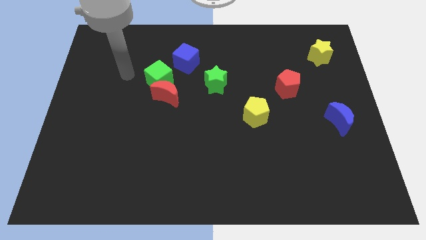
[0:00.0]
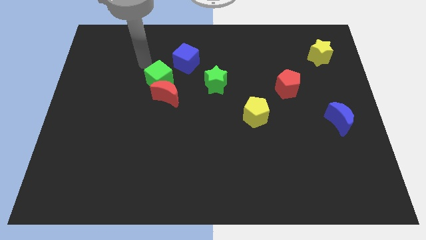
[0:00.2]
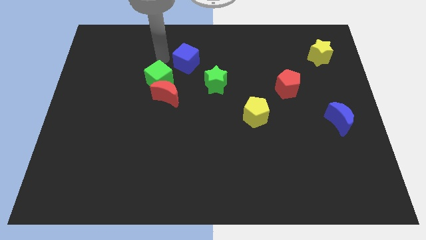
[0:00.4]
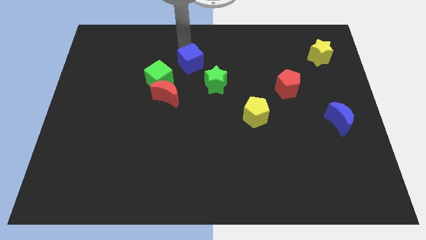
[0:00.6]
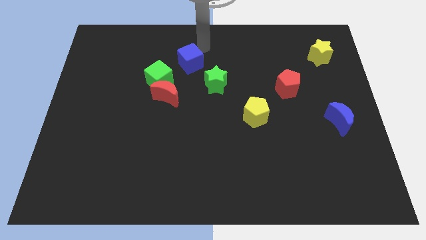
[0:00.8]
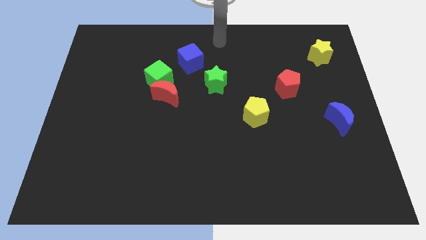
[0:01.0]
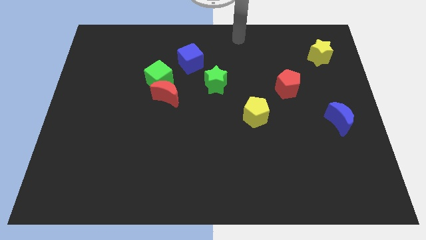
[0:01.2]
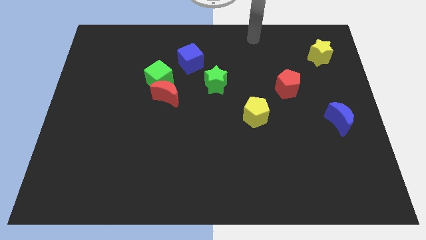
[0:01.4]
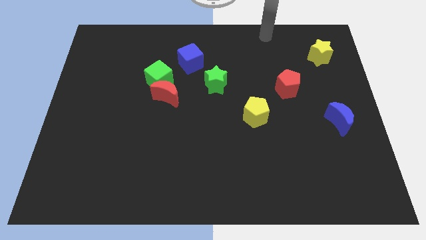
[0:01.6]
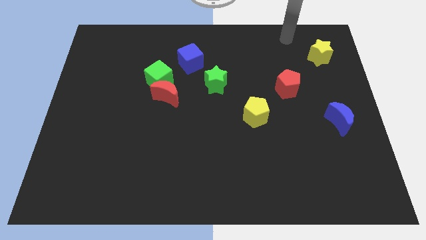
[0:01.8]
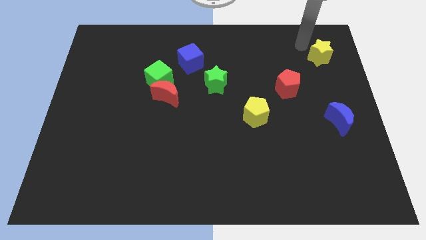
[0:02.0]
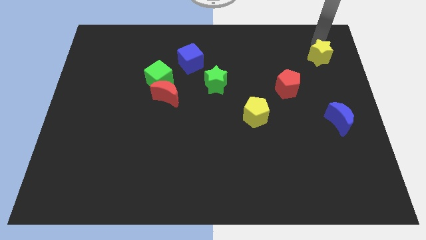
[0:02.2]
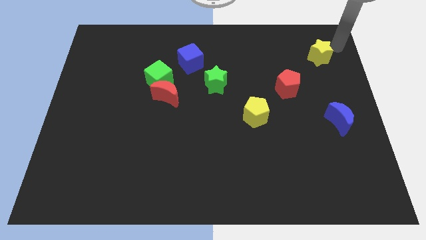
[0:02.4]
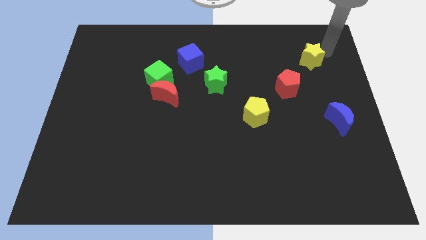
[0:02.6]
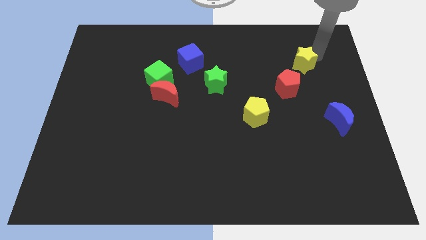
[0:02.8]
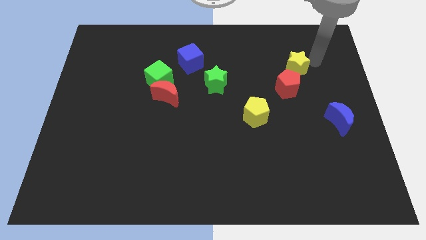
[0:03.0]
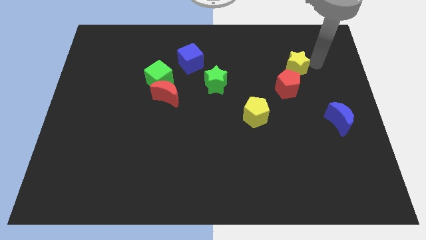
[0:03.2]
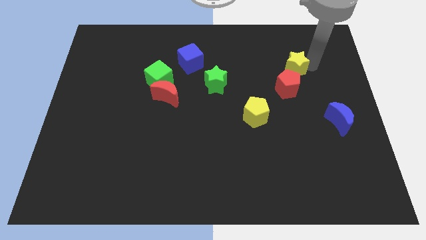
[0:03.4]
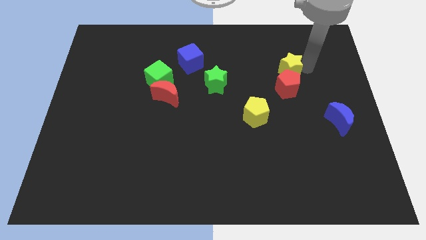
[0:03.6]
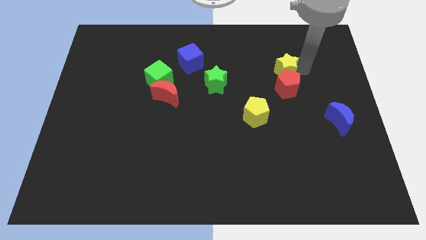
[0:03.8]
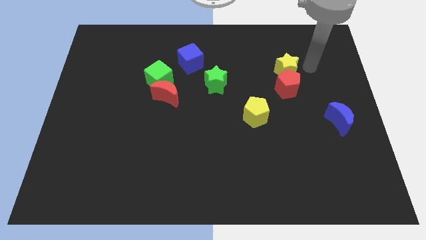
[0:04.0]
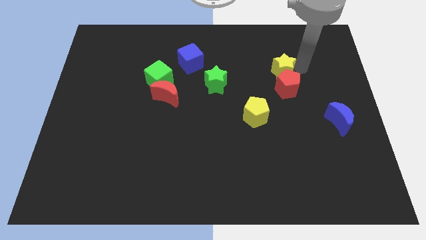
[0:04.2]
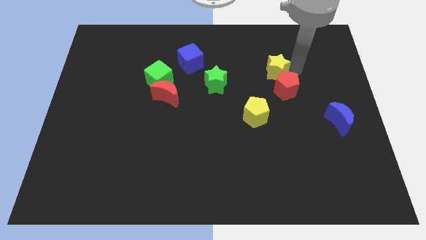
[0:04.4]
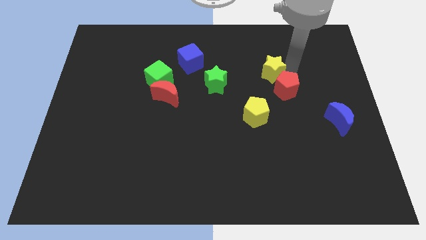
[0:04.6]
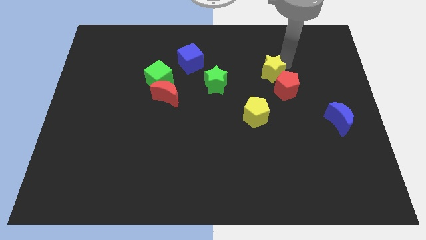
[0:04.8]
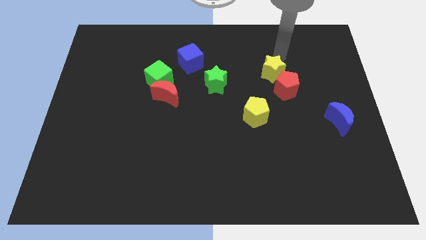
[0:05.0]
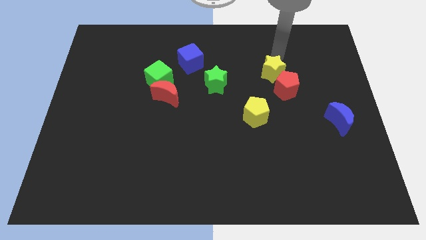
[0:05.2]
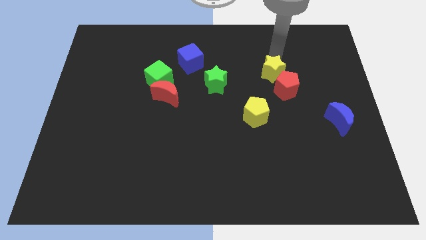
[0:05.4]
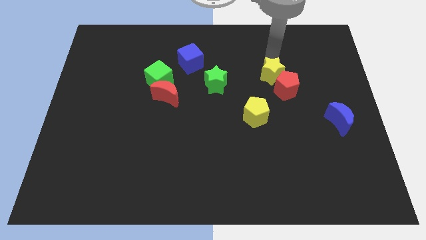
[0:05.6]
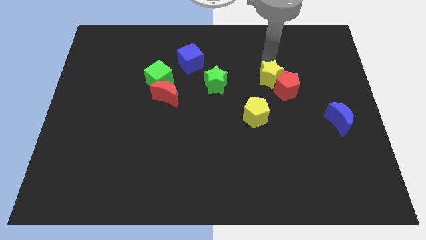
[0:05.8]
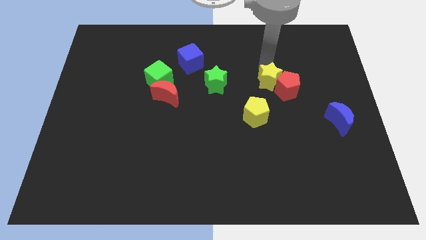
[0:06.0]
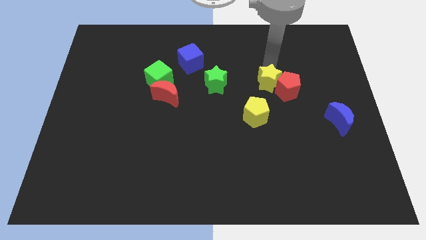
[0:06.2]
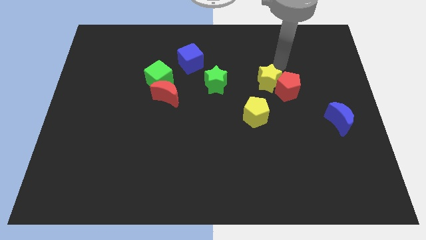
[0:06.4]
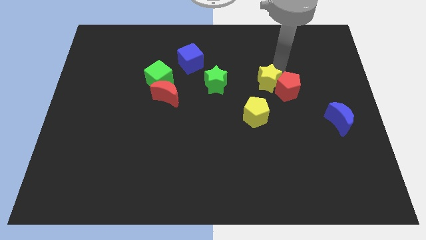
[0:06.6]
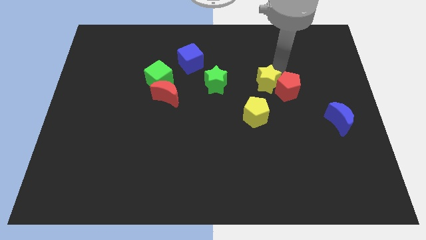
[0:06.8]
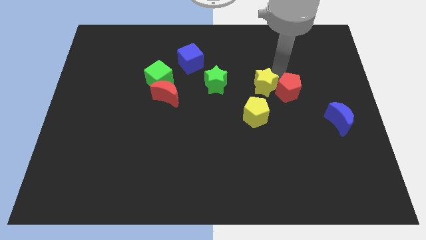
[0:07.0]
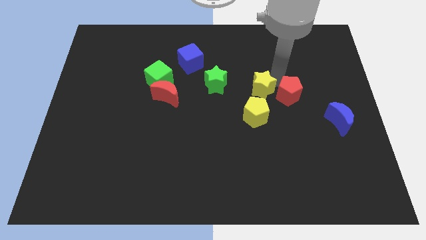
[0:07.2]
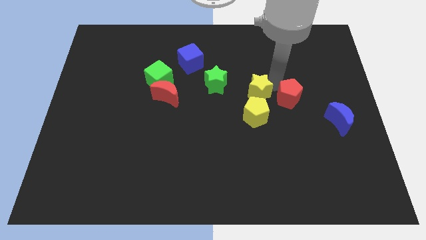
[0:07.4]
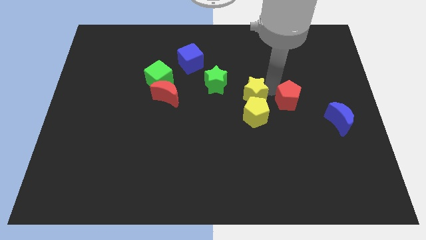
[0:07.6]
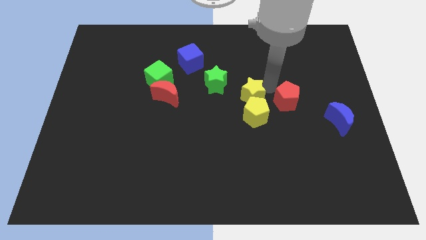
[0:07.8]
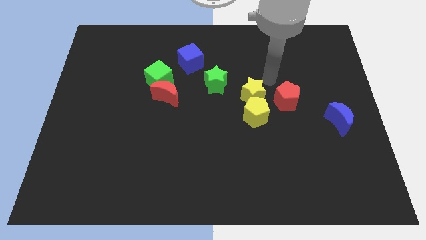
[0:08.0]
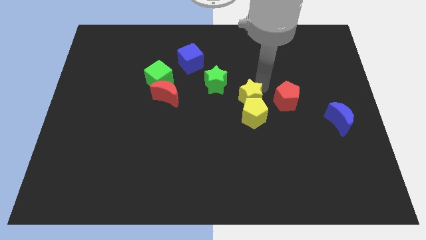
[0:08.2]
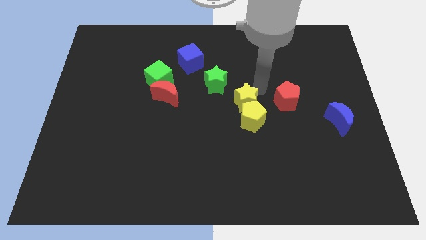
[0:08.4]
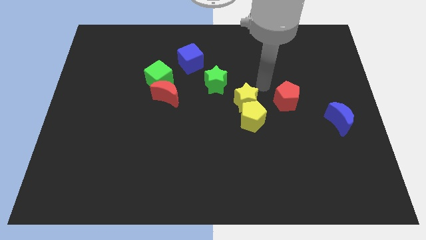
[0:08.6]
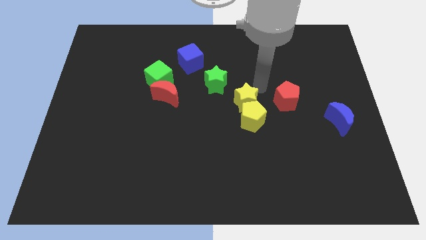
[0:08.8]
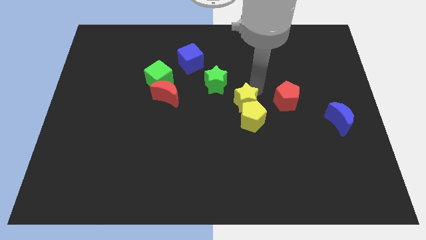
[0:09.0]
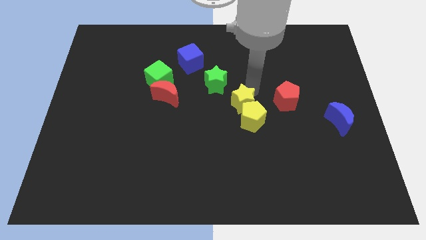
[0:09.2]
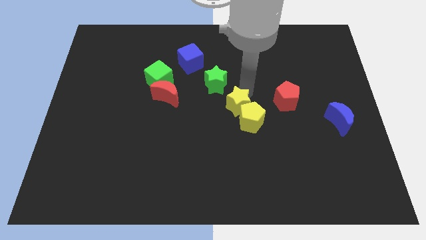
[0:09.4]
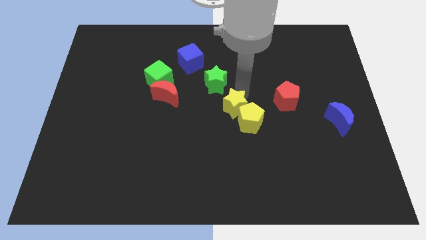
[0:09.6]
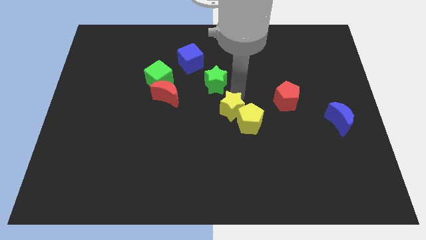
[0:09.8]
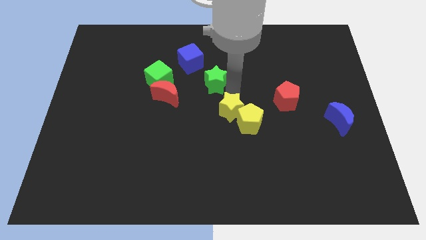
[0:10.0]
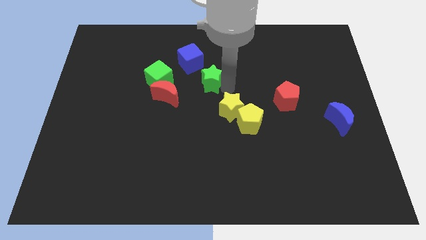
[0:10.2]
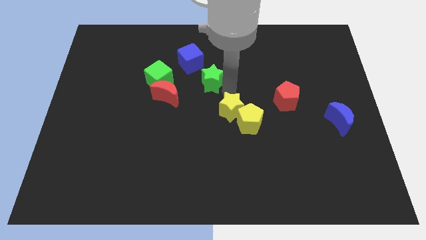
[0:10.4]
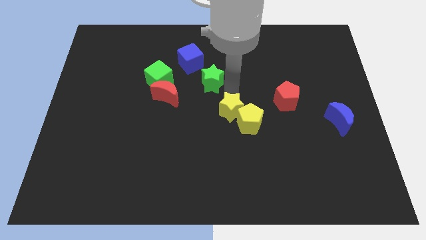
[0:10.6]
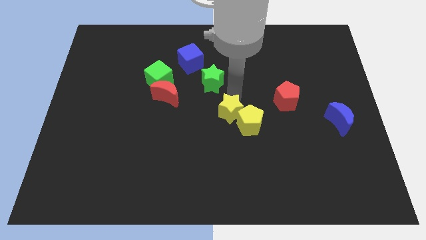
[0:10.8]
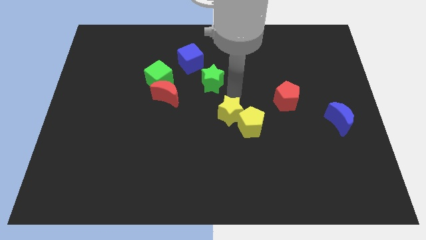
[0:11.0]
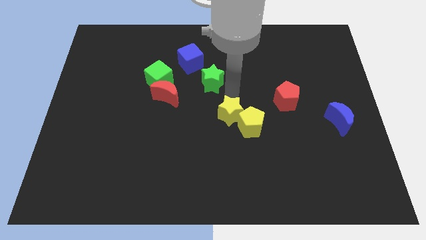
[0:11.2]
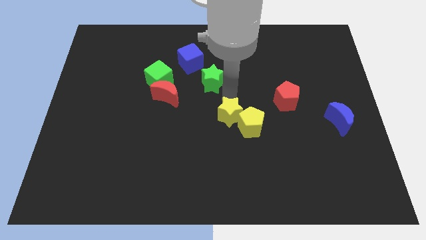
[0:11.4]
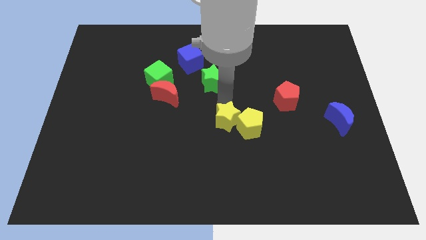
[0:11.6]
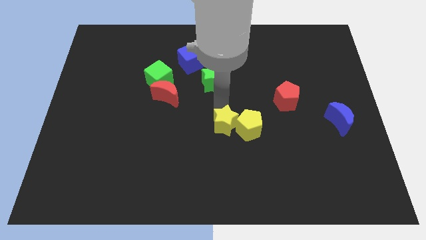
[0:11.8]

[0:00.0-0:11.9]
put the yellow star to the bottom left side of the yellow pentagon
